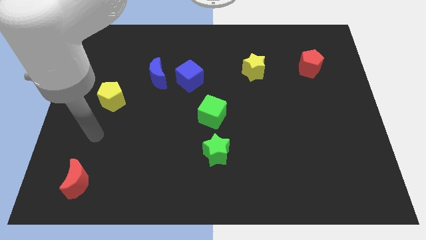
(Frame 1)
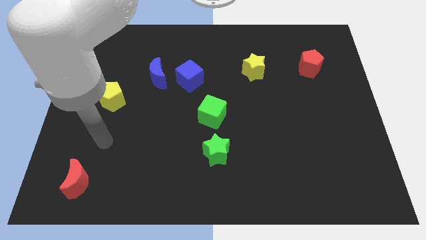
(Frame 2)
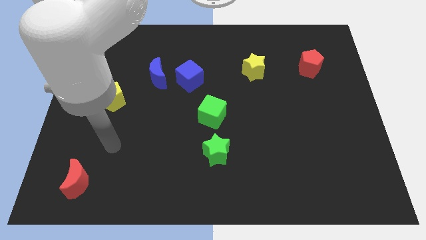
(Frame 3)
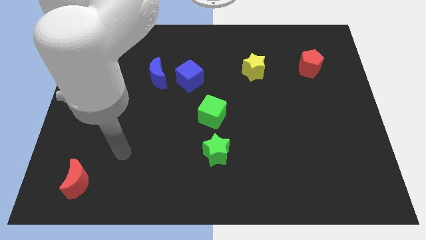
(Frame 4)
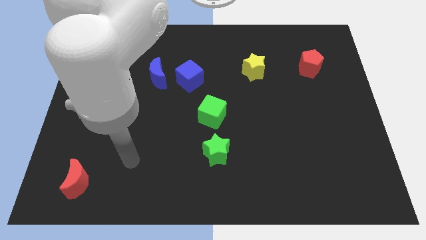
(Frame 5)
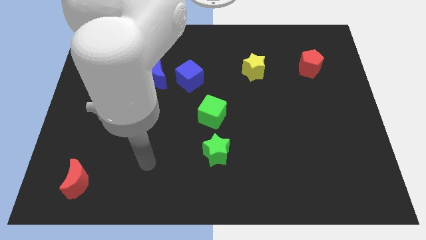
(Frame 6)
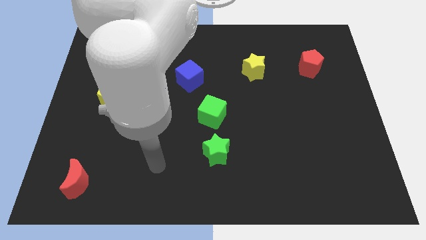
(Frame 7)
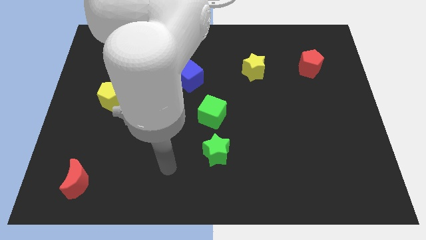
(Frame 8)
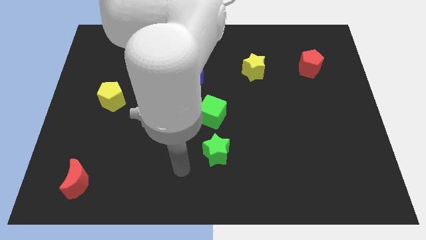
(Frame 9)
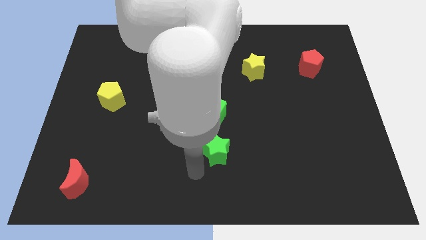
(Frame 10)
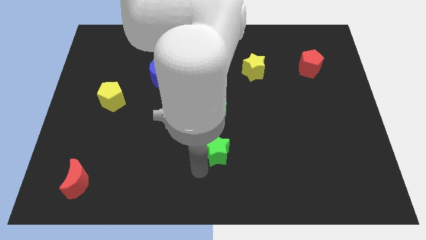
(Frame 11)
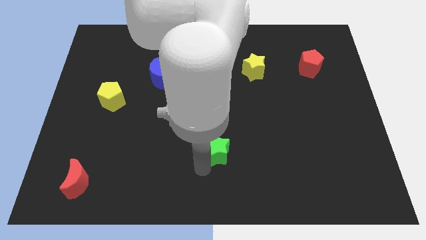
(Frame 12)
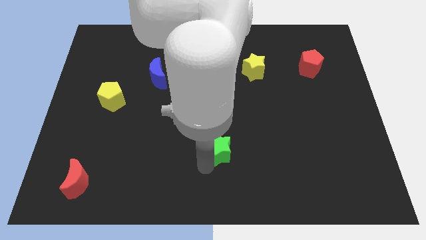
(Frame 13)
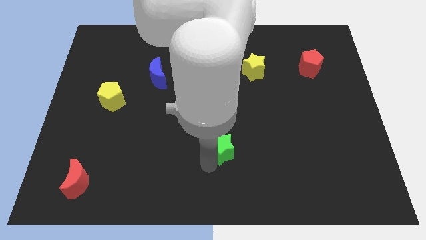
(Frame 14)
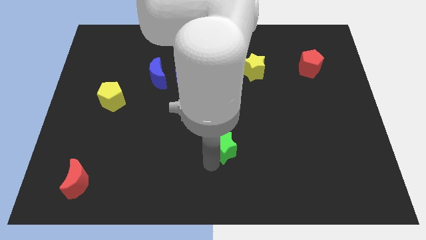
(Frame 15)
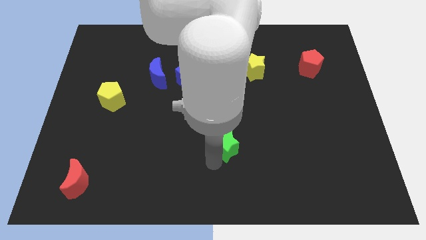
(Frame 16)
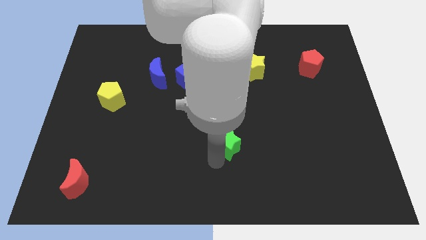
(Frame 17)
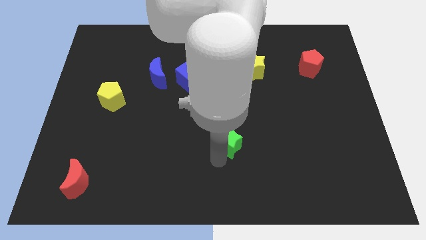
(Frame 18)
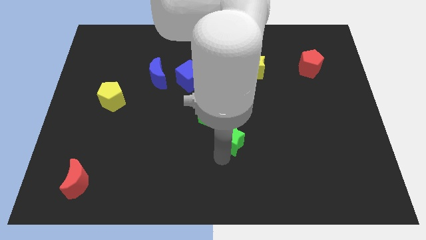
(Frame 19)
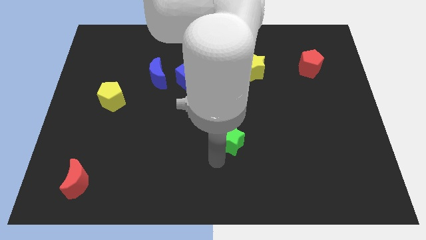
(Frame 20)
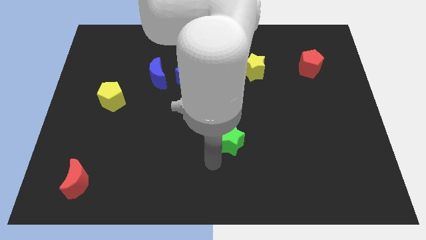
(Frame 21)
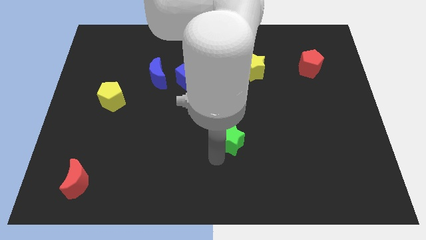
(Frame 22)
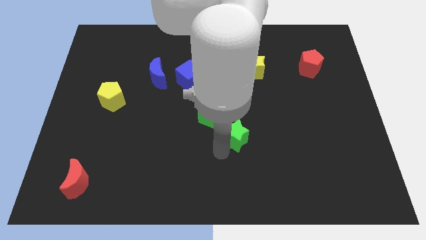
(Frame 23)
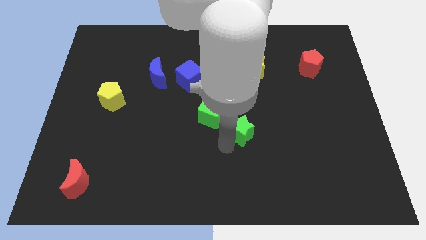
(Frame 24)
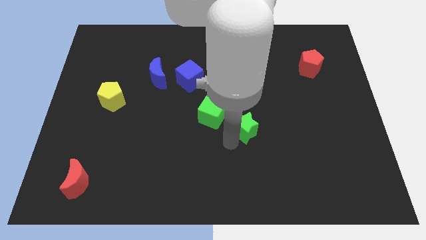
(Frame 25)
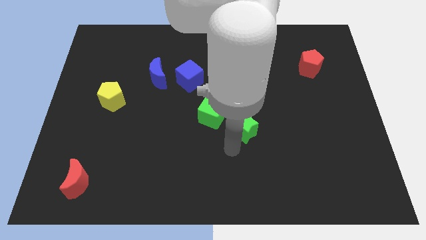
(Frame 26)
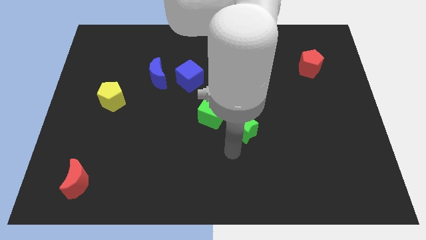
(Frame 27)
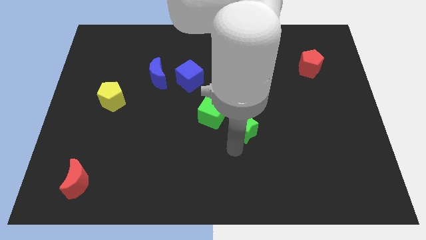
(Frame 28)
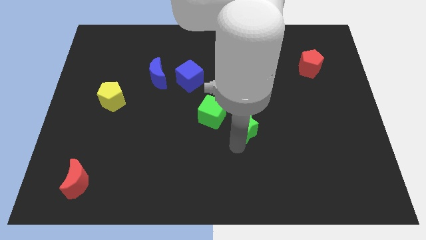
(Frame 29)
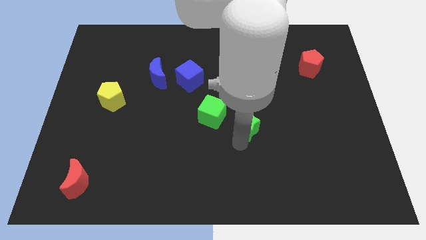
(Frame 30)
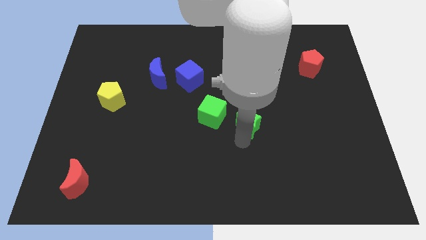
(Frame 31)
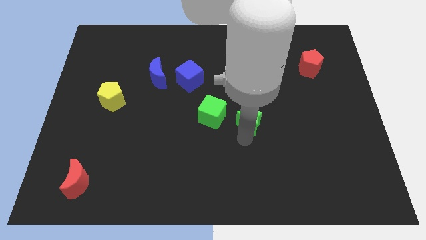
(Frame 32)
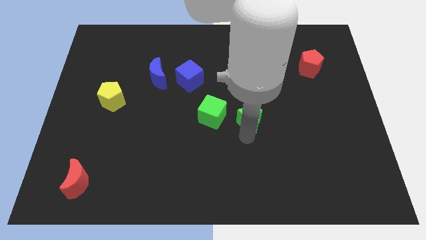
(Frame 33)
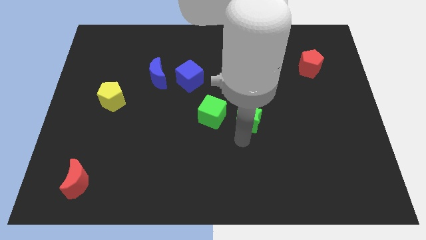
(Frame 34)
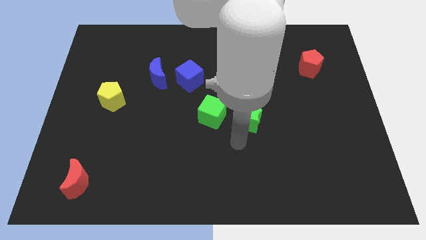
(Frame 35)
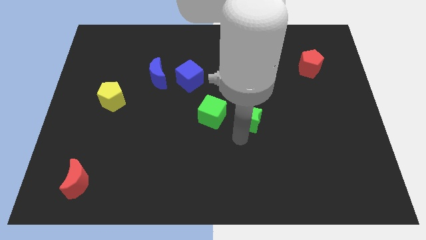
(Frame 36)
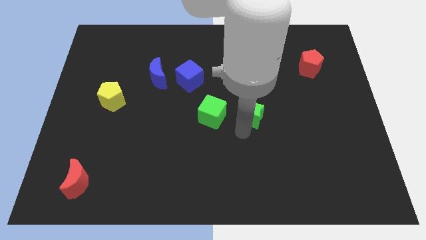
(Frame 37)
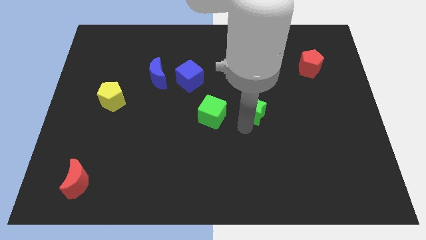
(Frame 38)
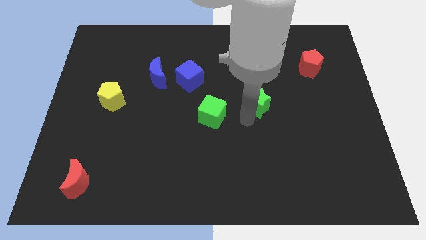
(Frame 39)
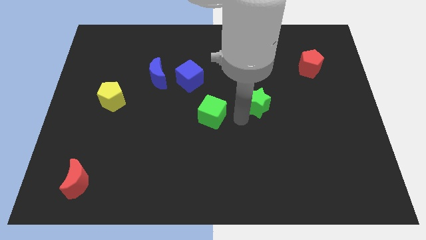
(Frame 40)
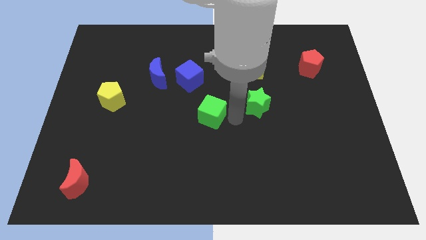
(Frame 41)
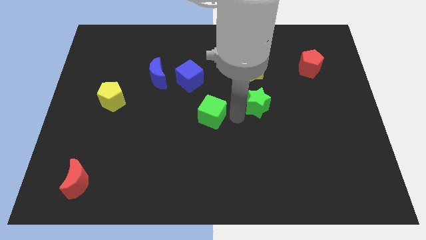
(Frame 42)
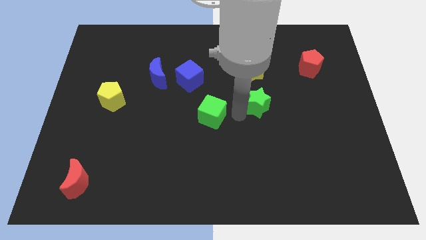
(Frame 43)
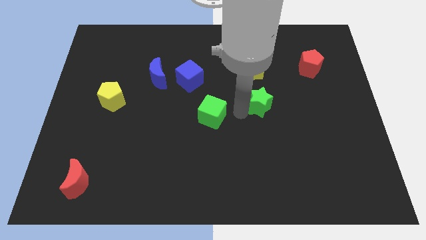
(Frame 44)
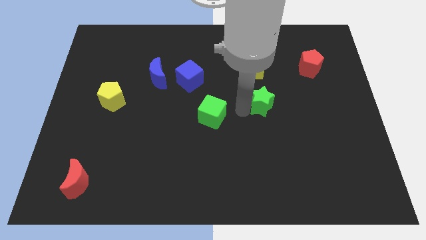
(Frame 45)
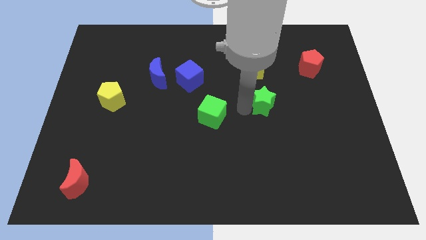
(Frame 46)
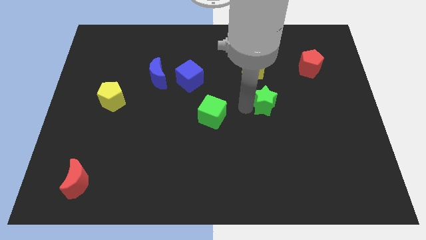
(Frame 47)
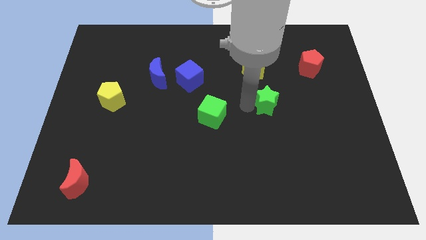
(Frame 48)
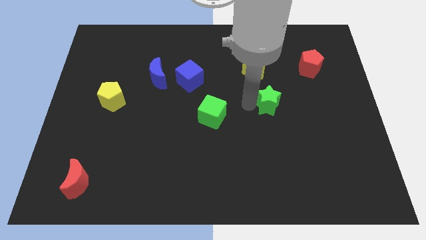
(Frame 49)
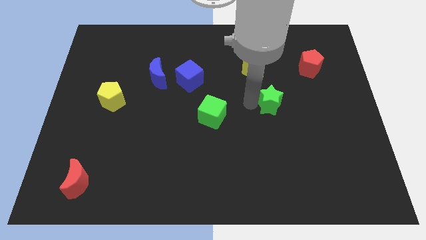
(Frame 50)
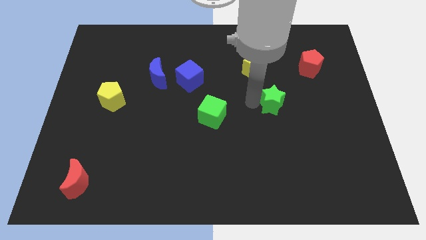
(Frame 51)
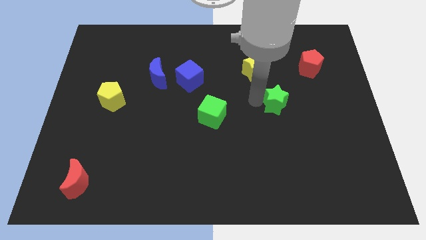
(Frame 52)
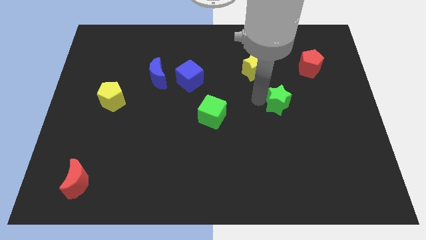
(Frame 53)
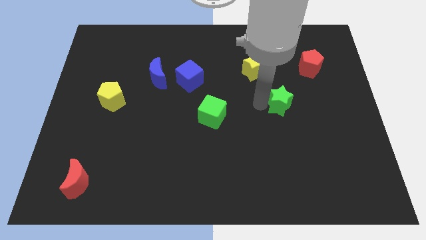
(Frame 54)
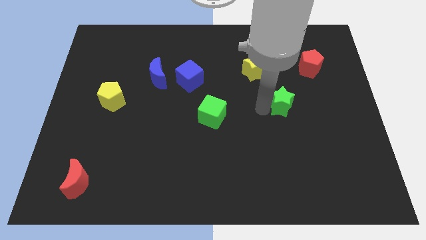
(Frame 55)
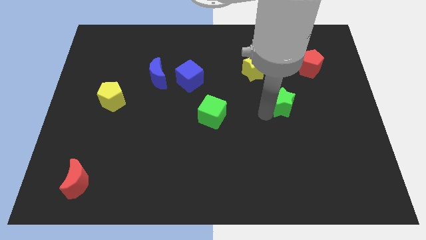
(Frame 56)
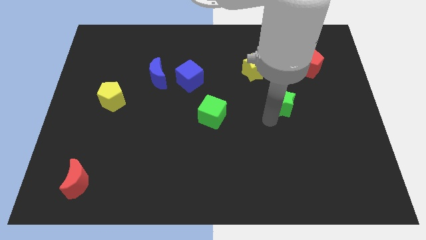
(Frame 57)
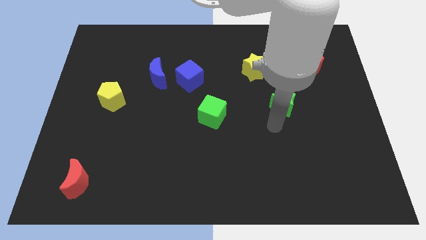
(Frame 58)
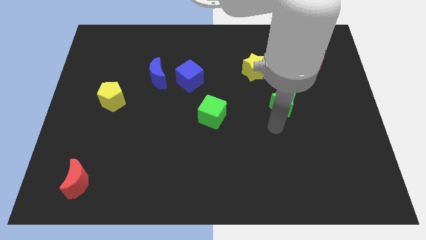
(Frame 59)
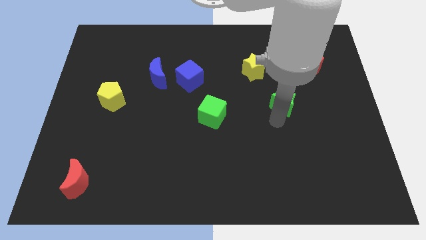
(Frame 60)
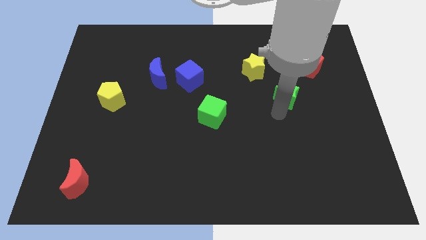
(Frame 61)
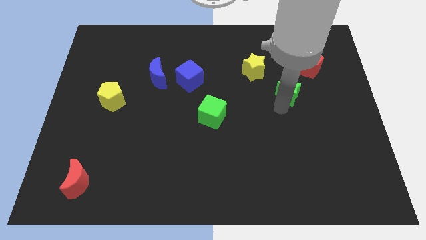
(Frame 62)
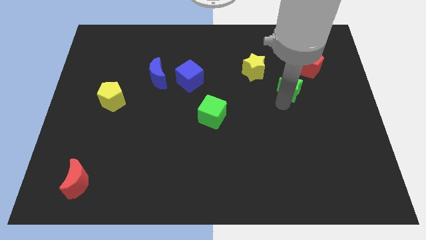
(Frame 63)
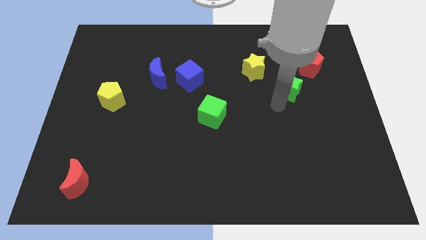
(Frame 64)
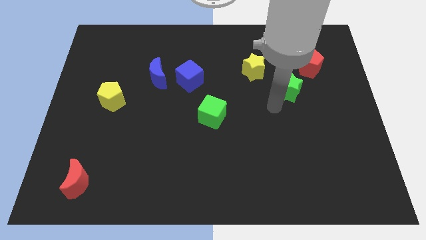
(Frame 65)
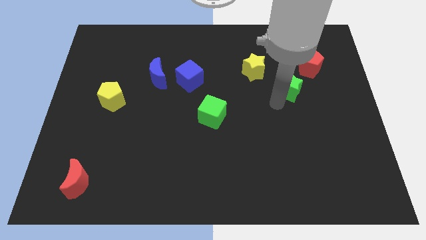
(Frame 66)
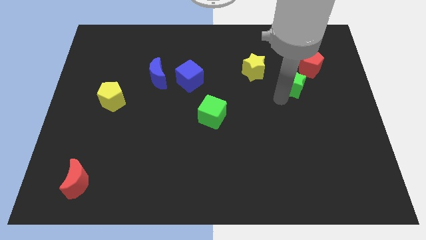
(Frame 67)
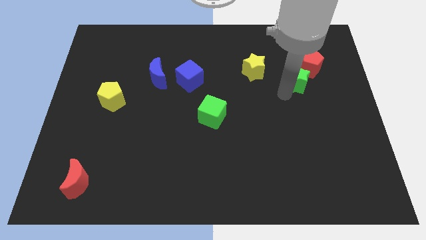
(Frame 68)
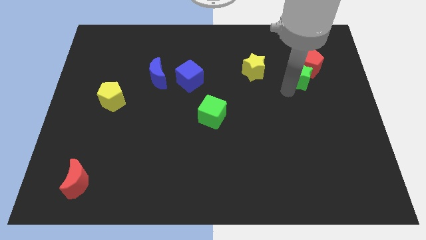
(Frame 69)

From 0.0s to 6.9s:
push the green star next to the red pentagon
